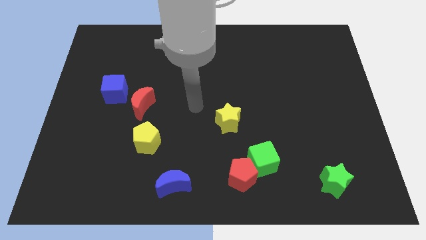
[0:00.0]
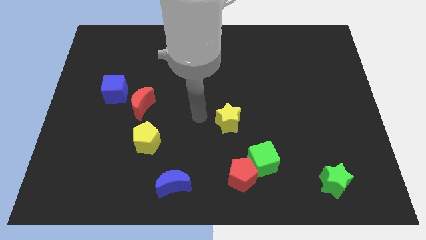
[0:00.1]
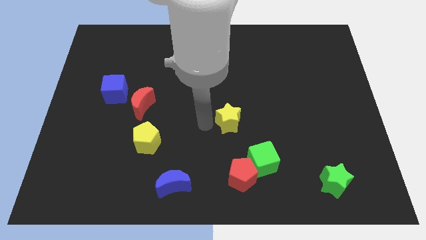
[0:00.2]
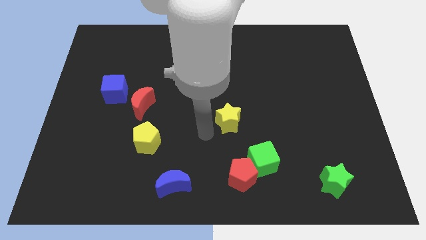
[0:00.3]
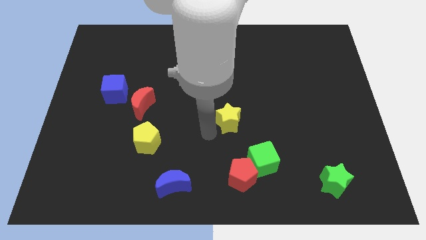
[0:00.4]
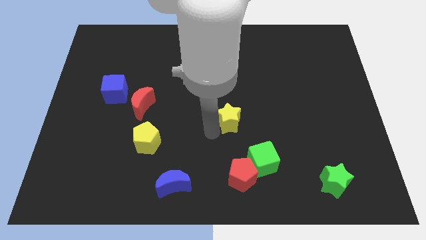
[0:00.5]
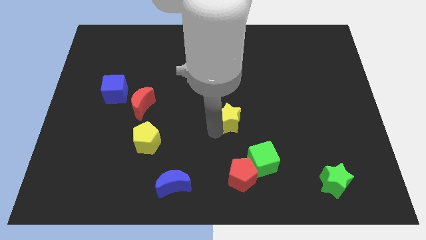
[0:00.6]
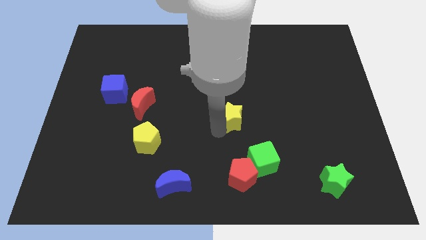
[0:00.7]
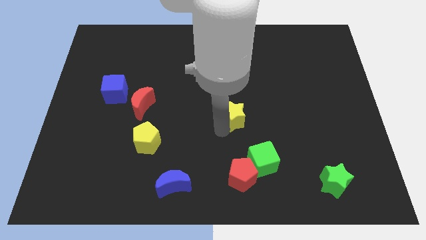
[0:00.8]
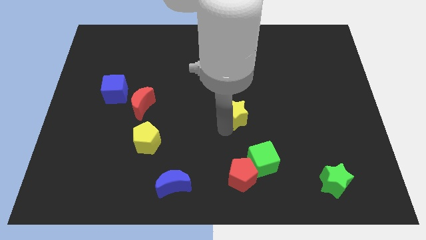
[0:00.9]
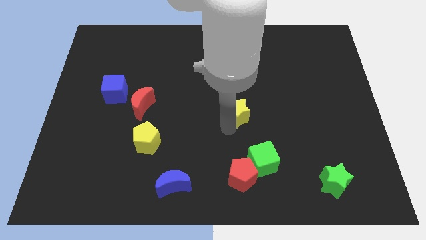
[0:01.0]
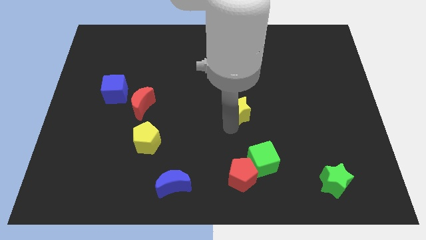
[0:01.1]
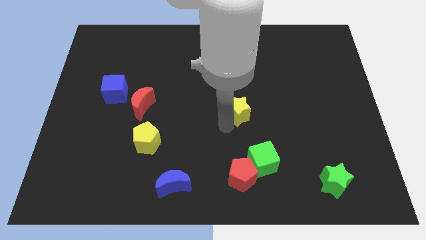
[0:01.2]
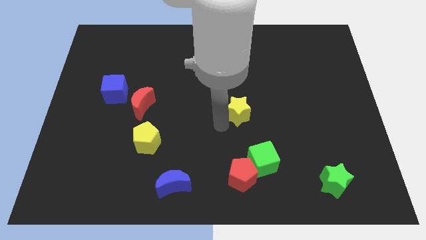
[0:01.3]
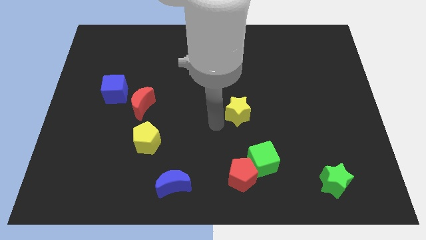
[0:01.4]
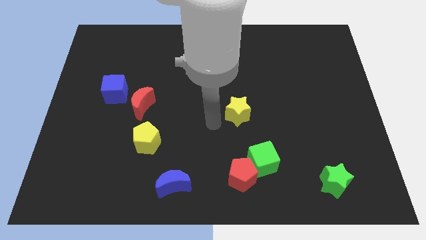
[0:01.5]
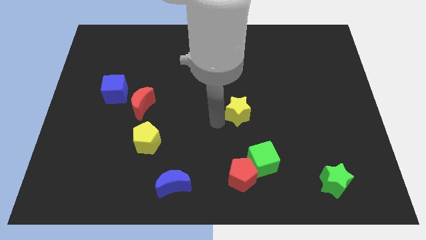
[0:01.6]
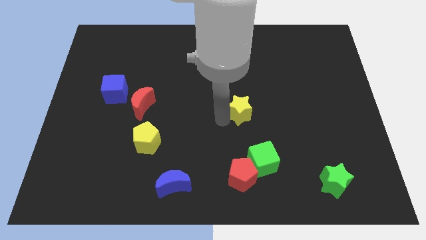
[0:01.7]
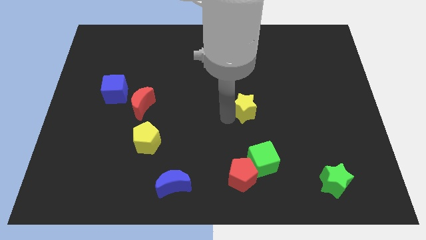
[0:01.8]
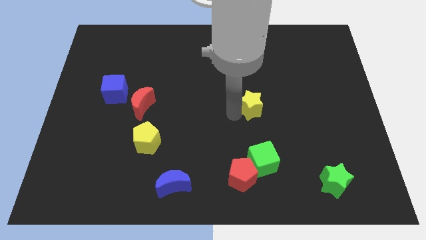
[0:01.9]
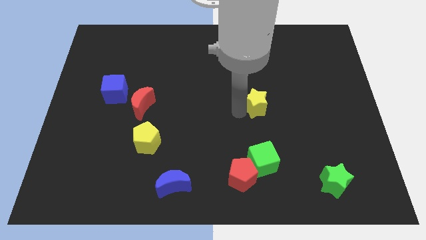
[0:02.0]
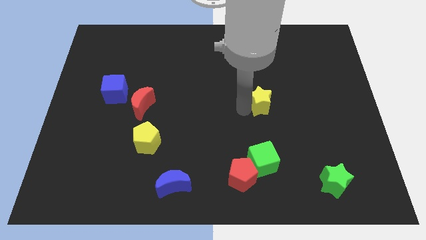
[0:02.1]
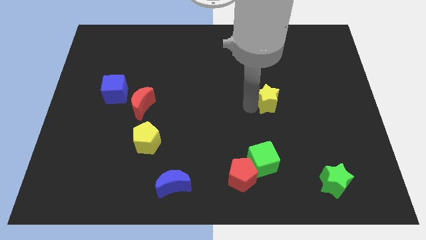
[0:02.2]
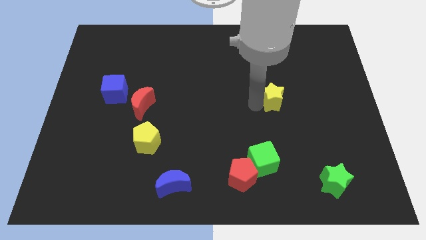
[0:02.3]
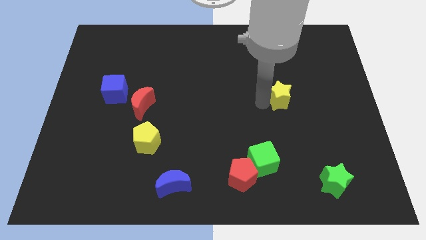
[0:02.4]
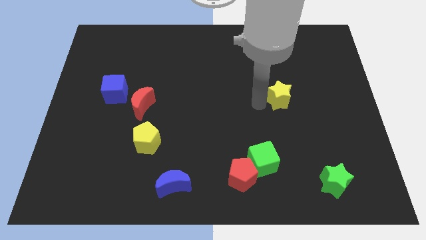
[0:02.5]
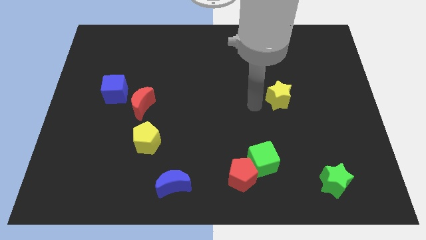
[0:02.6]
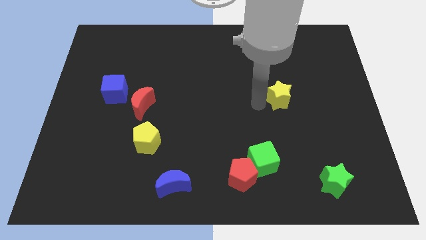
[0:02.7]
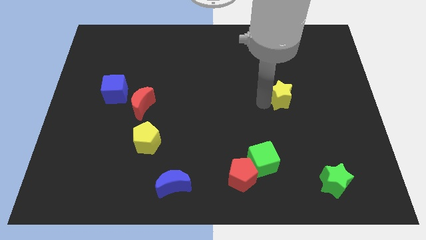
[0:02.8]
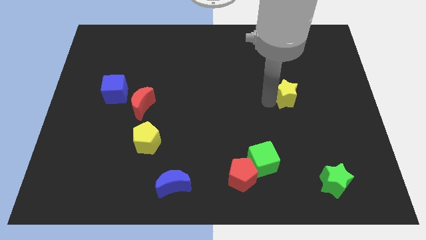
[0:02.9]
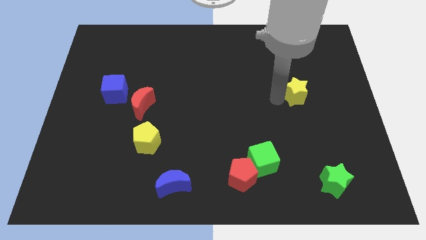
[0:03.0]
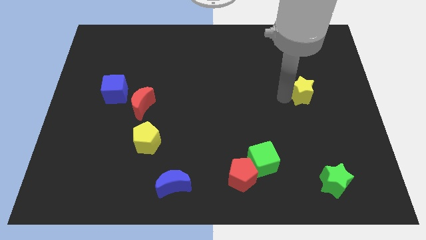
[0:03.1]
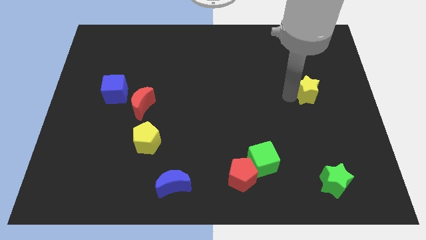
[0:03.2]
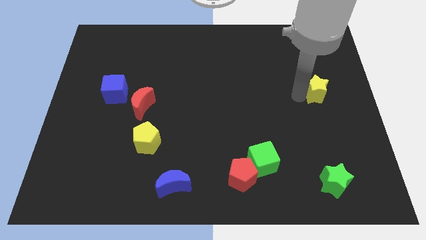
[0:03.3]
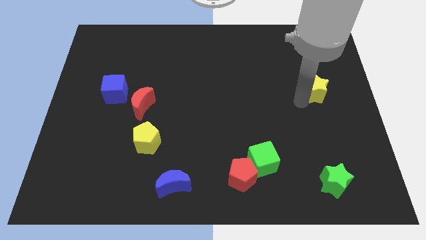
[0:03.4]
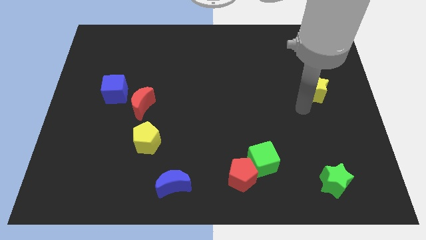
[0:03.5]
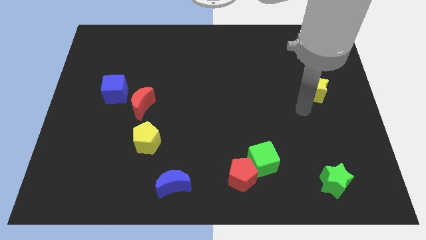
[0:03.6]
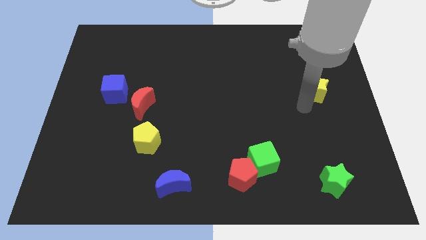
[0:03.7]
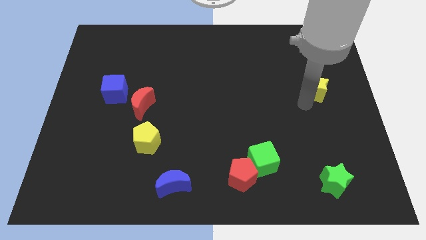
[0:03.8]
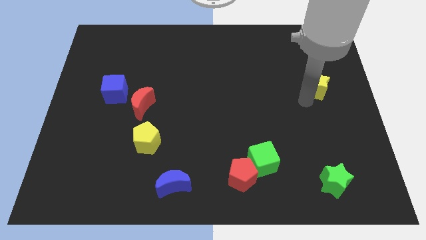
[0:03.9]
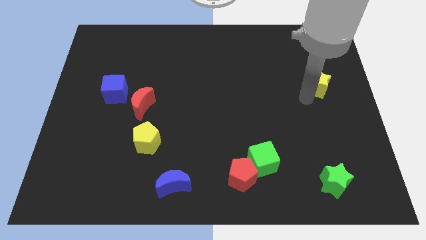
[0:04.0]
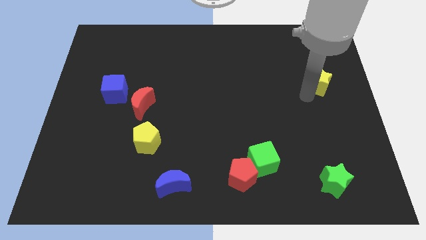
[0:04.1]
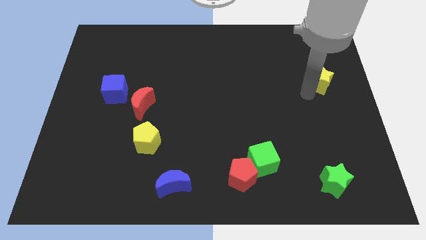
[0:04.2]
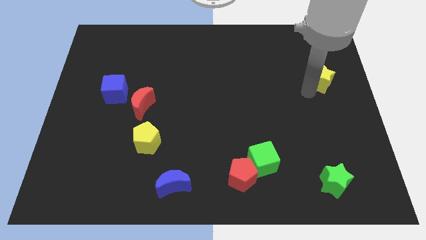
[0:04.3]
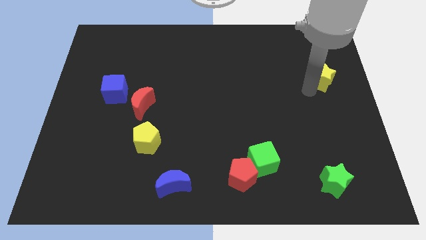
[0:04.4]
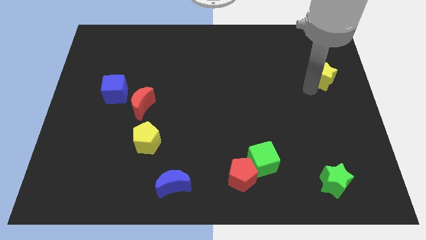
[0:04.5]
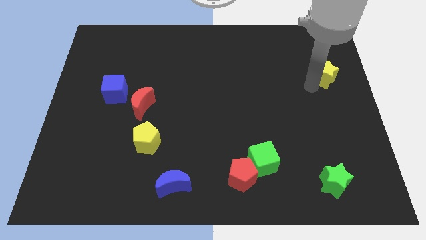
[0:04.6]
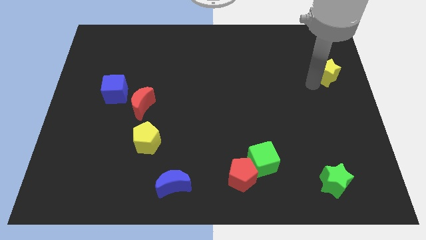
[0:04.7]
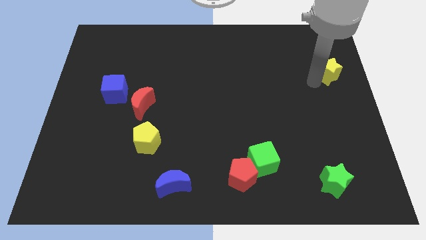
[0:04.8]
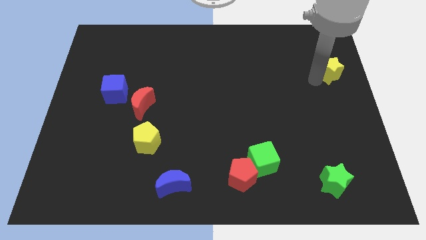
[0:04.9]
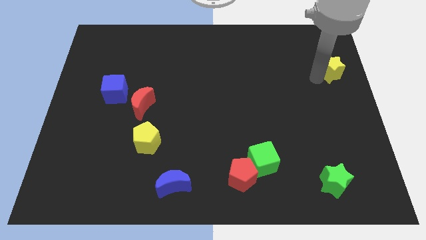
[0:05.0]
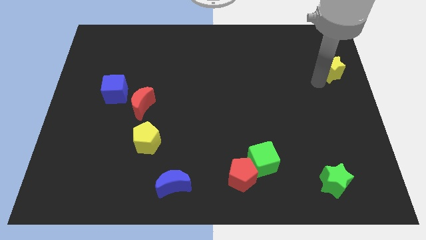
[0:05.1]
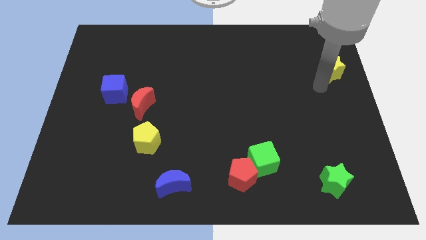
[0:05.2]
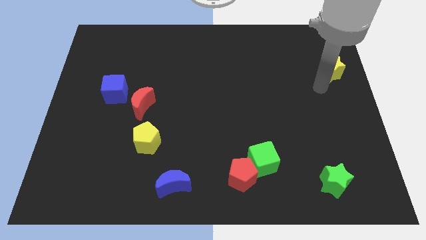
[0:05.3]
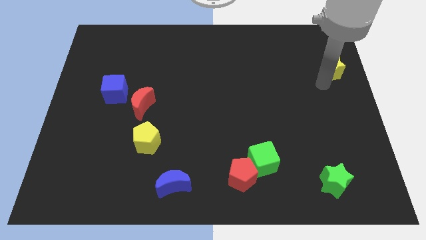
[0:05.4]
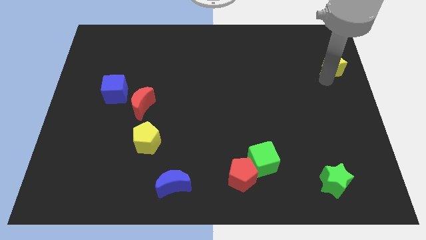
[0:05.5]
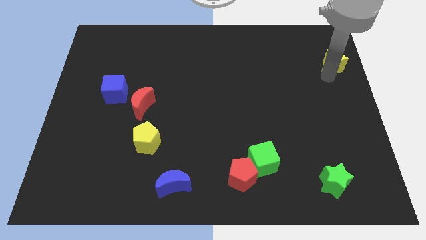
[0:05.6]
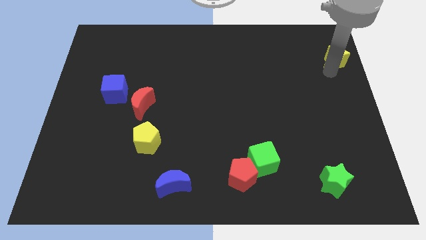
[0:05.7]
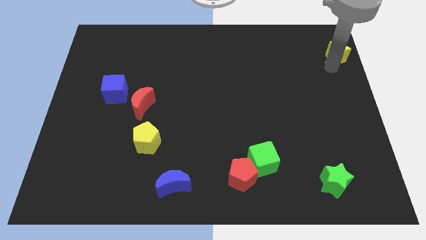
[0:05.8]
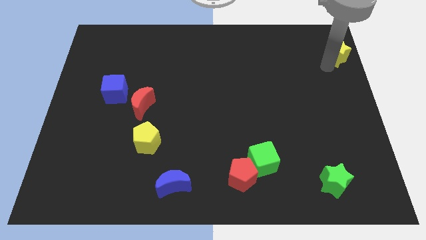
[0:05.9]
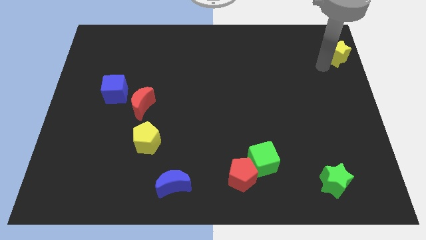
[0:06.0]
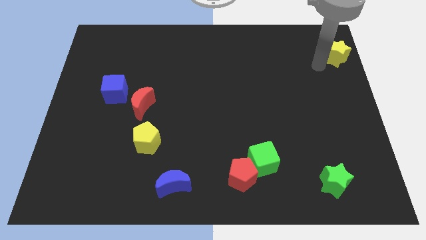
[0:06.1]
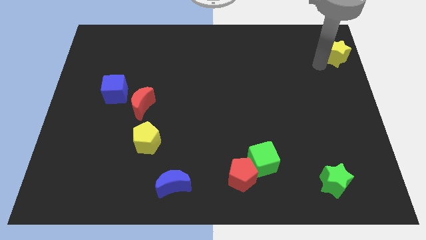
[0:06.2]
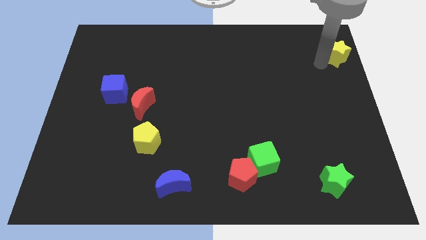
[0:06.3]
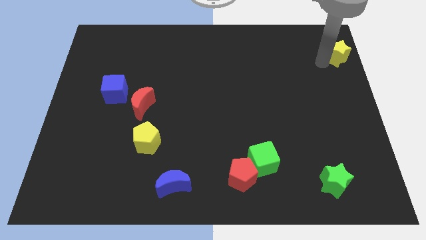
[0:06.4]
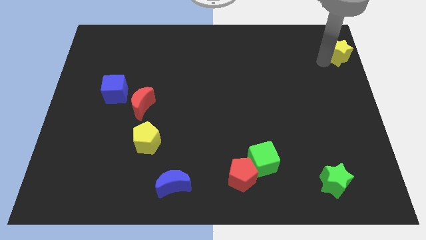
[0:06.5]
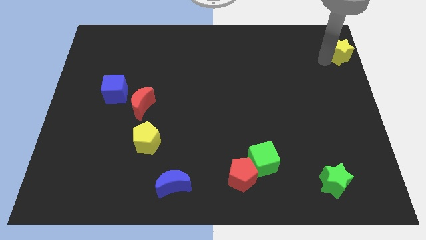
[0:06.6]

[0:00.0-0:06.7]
slide the yellow star to the top right of the board

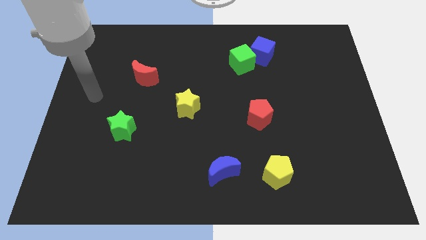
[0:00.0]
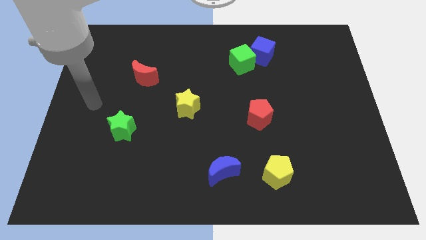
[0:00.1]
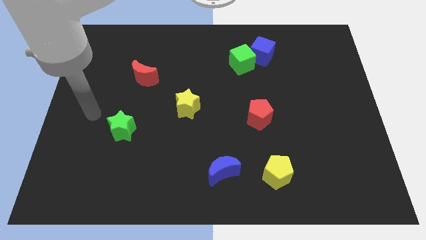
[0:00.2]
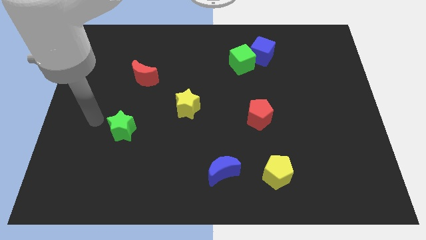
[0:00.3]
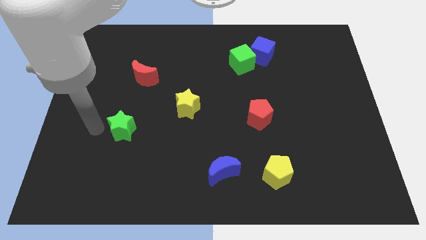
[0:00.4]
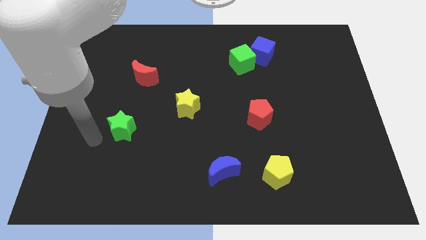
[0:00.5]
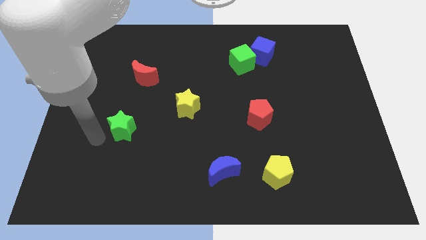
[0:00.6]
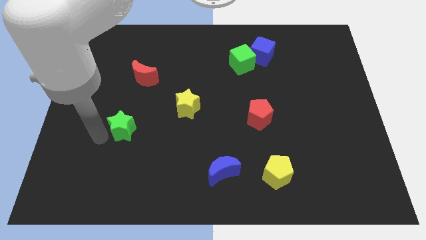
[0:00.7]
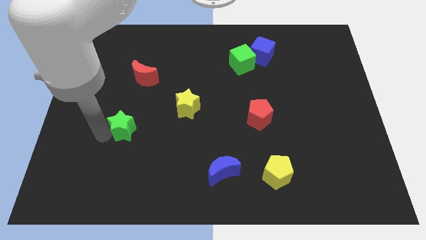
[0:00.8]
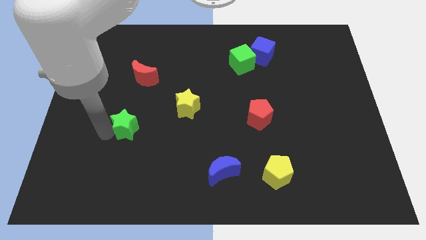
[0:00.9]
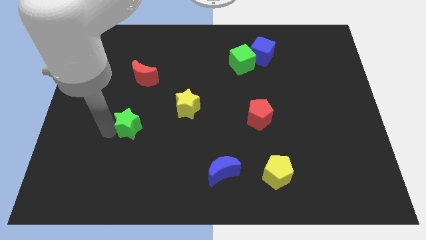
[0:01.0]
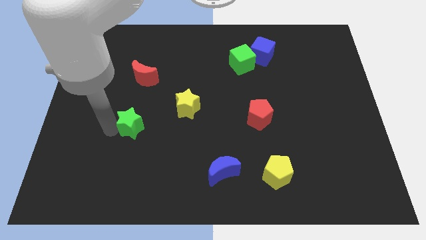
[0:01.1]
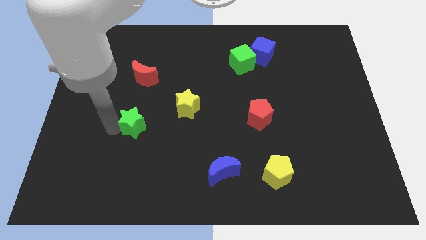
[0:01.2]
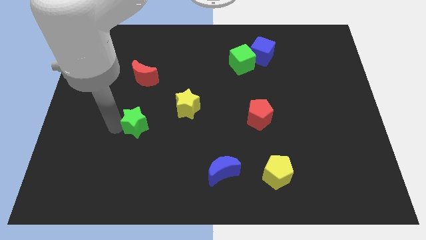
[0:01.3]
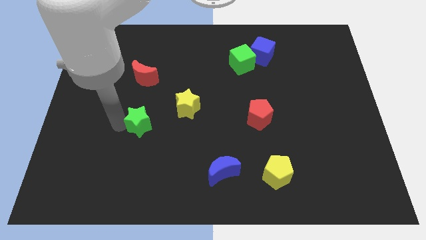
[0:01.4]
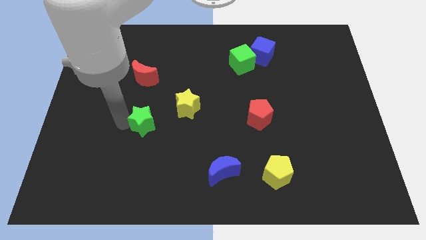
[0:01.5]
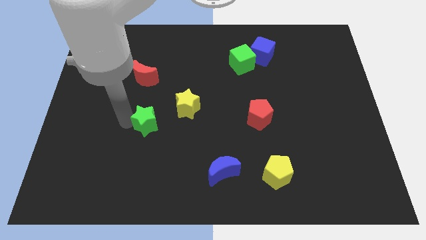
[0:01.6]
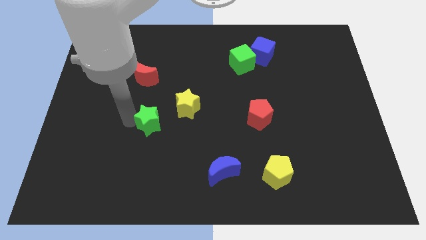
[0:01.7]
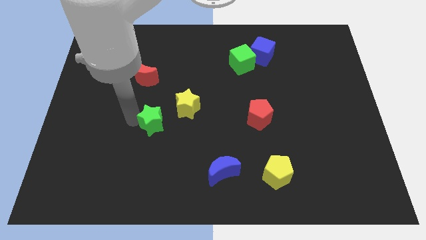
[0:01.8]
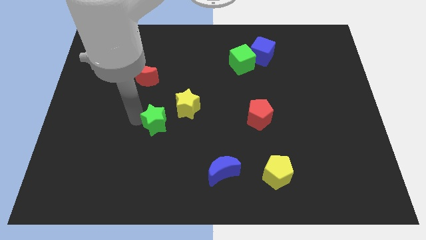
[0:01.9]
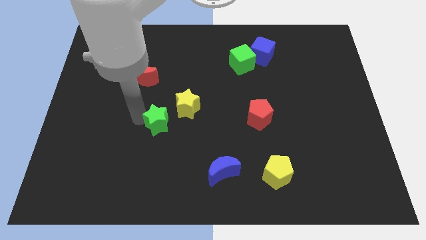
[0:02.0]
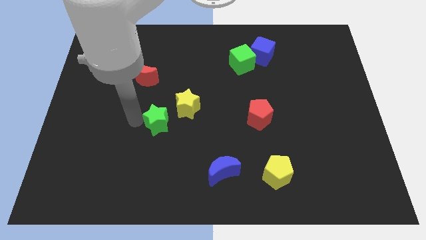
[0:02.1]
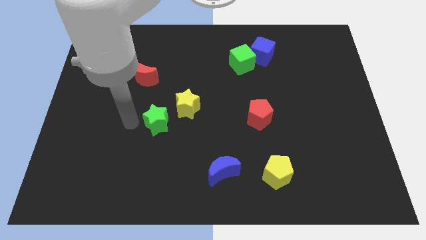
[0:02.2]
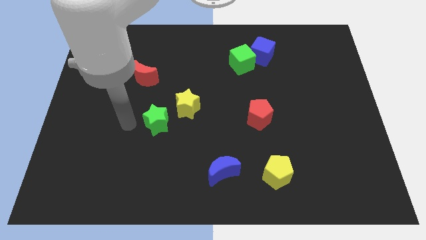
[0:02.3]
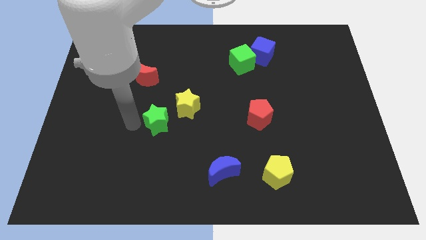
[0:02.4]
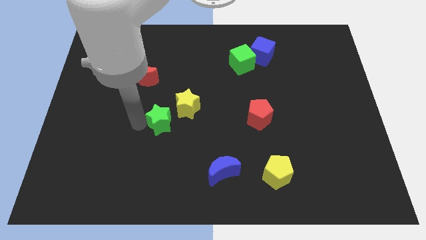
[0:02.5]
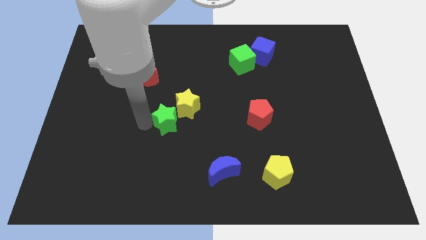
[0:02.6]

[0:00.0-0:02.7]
push the green star to the middle of the board
